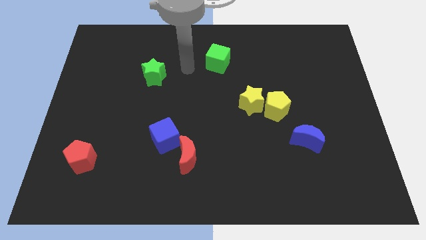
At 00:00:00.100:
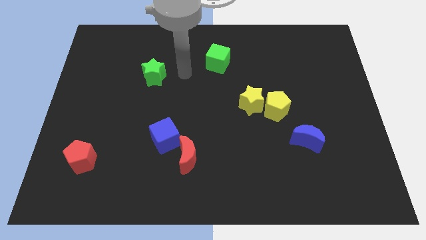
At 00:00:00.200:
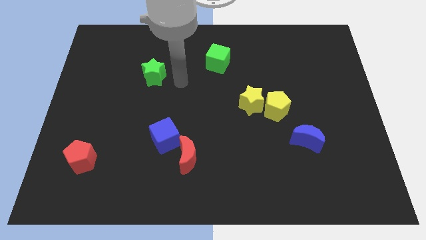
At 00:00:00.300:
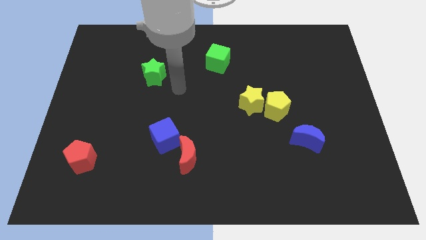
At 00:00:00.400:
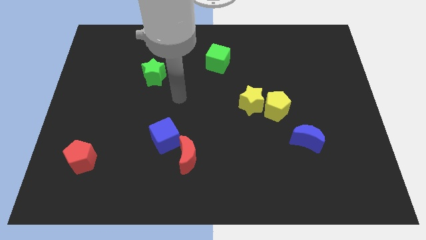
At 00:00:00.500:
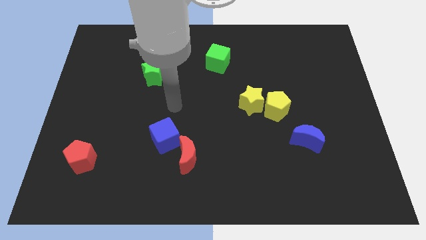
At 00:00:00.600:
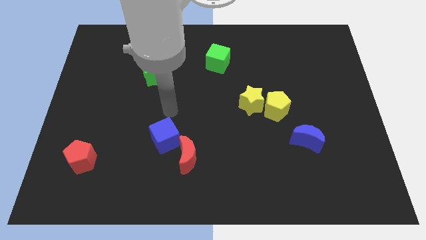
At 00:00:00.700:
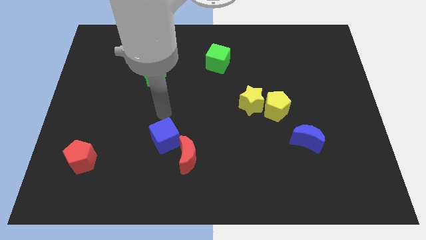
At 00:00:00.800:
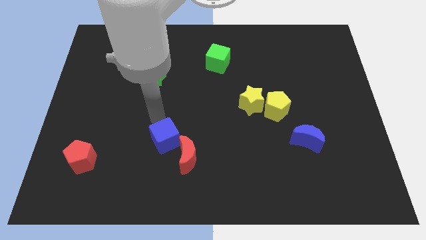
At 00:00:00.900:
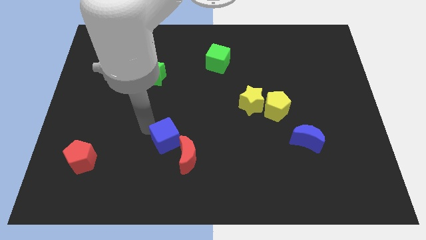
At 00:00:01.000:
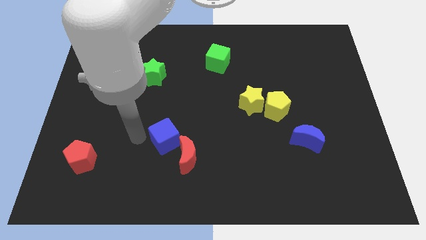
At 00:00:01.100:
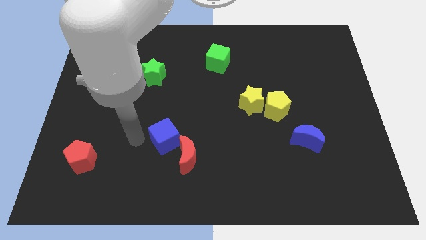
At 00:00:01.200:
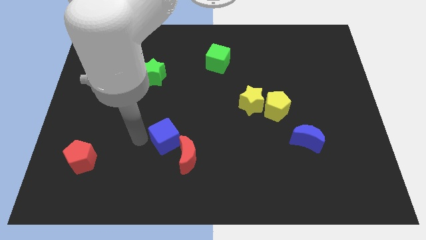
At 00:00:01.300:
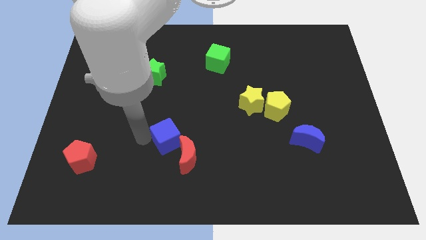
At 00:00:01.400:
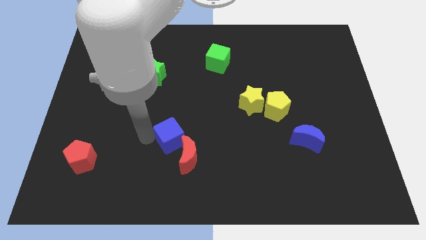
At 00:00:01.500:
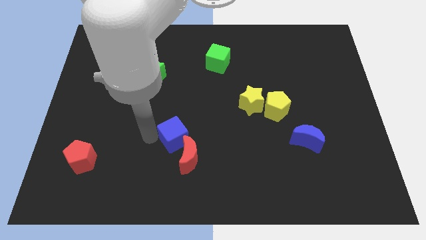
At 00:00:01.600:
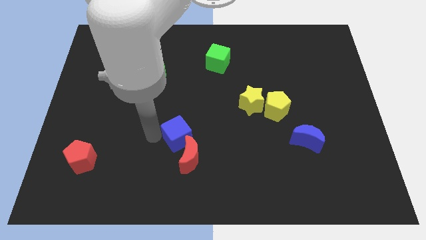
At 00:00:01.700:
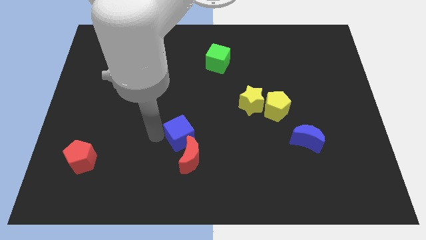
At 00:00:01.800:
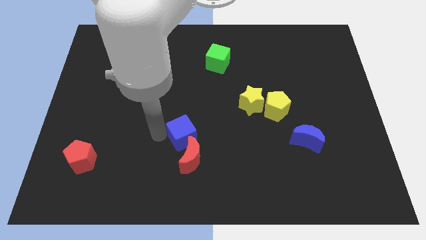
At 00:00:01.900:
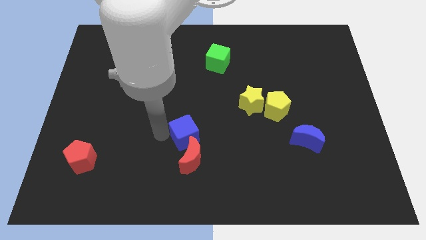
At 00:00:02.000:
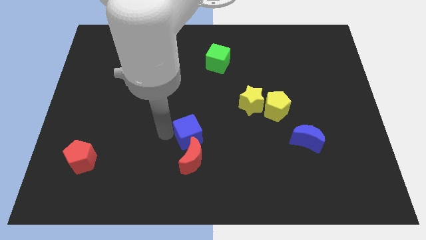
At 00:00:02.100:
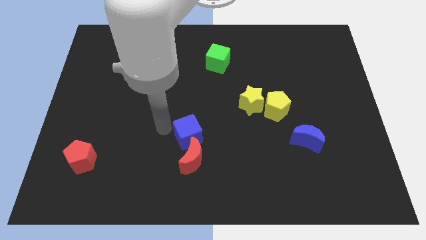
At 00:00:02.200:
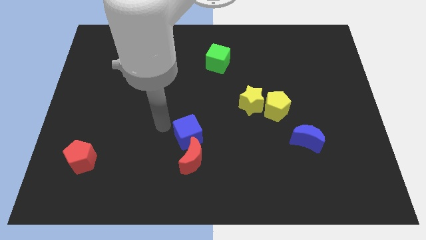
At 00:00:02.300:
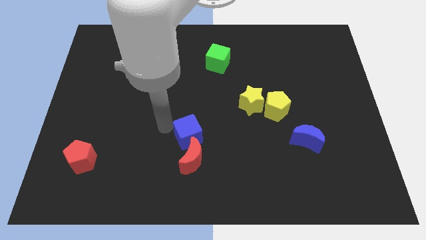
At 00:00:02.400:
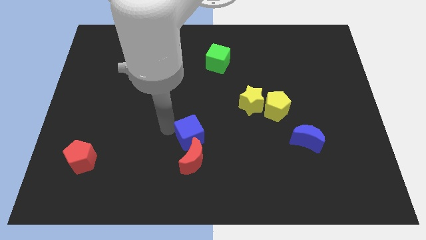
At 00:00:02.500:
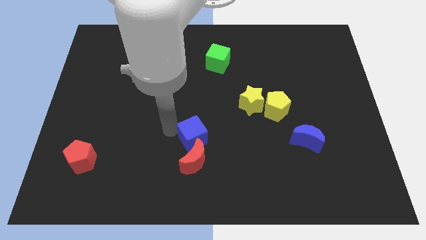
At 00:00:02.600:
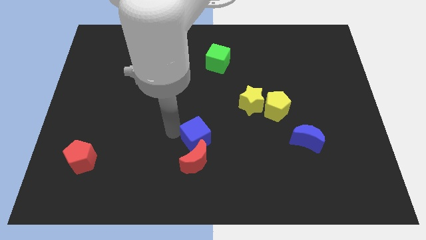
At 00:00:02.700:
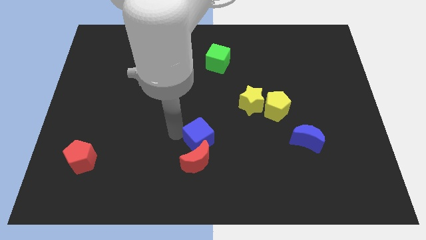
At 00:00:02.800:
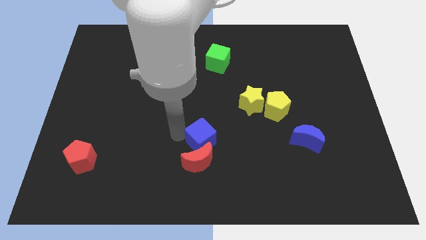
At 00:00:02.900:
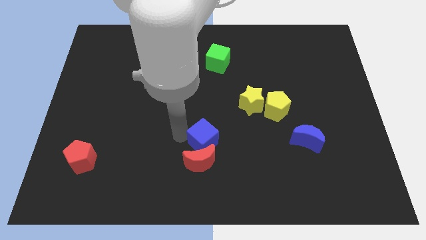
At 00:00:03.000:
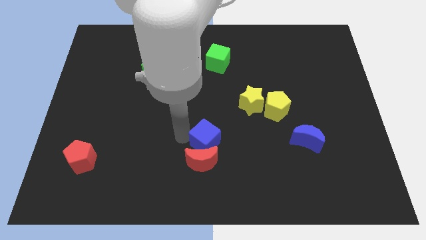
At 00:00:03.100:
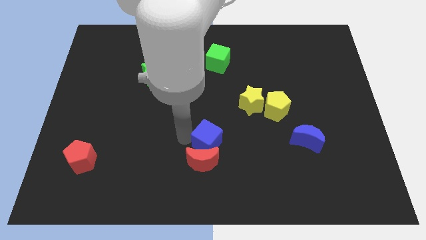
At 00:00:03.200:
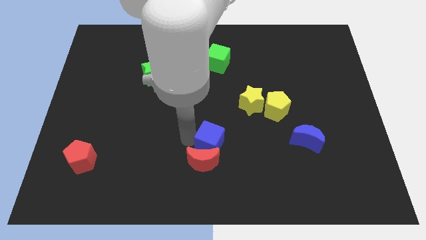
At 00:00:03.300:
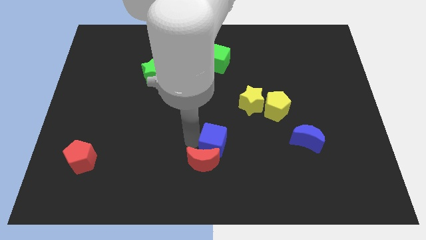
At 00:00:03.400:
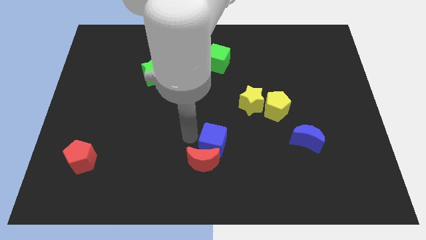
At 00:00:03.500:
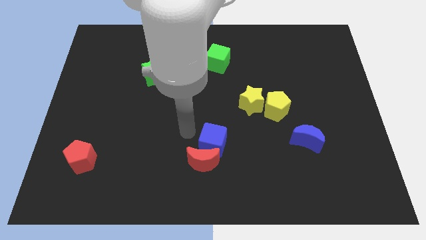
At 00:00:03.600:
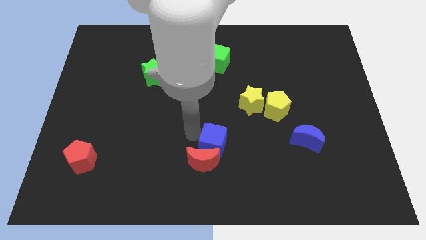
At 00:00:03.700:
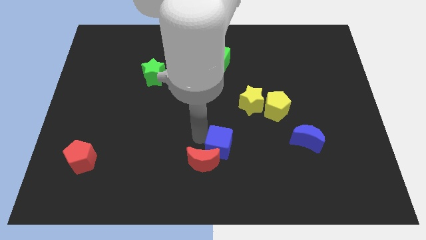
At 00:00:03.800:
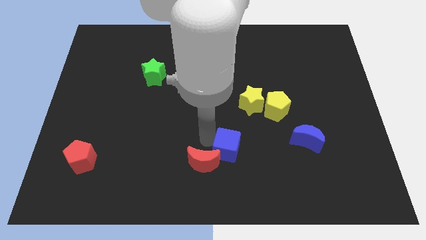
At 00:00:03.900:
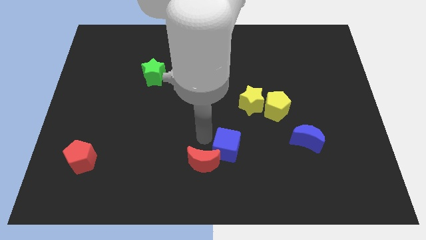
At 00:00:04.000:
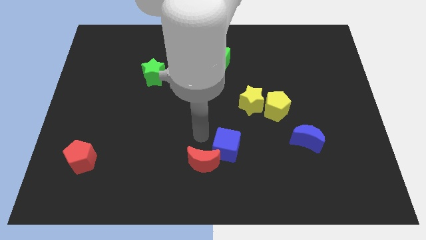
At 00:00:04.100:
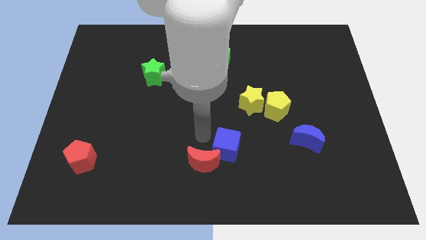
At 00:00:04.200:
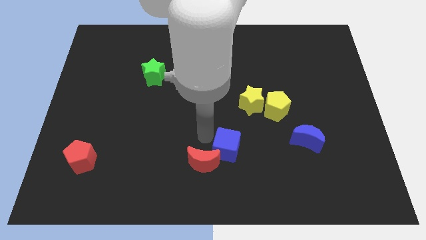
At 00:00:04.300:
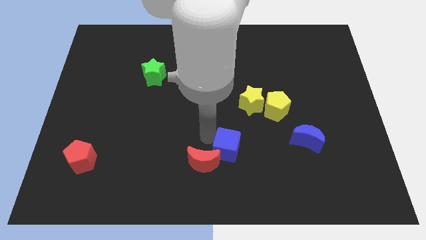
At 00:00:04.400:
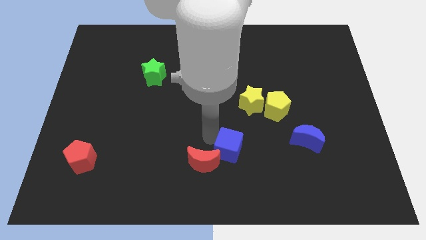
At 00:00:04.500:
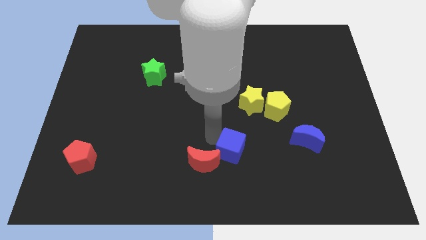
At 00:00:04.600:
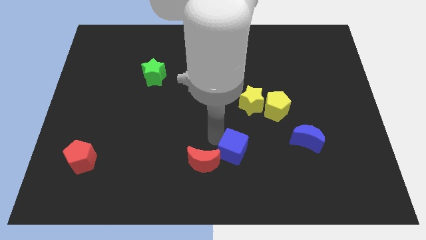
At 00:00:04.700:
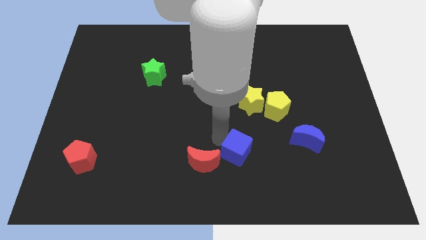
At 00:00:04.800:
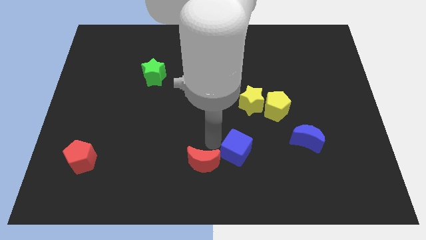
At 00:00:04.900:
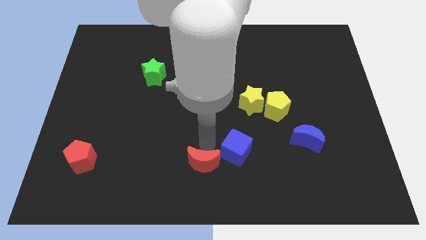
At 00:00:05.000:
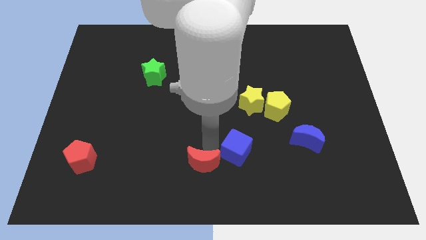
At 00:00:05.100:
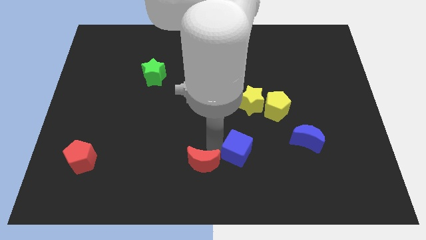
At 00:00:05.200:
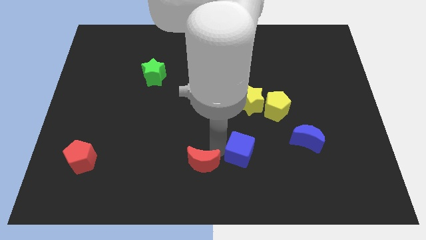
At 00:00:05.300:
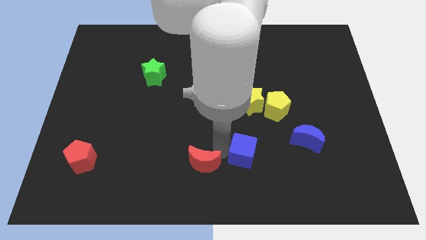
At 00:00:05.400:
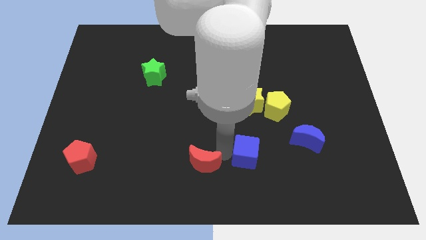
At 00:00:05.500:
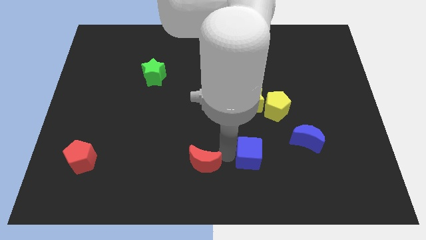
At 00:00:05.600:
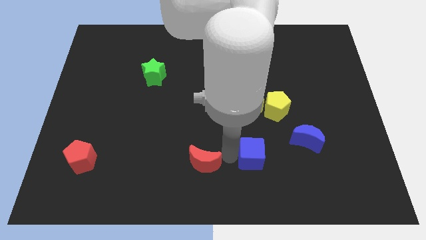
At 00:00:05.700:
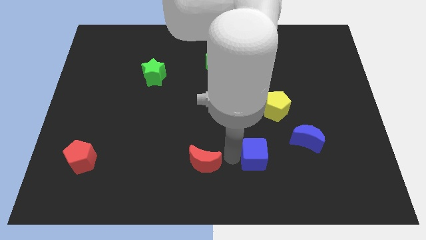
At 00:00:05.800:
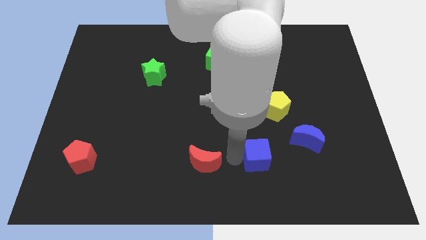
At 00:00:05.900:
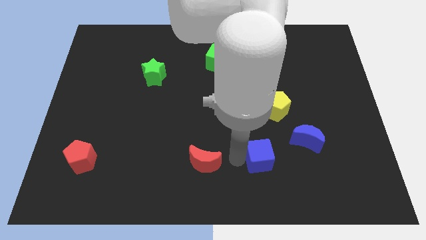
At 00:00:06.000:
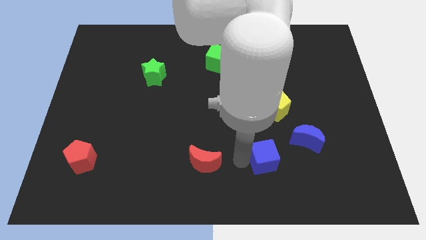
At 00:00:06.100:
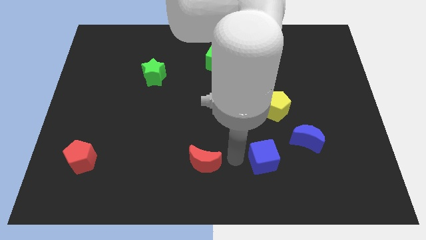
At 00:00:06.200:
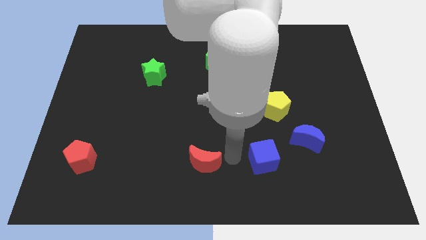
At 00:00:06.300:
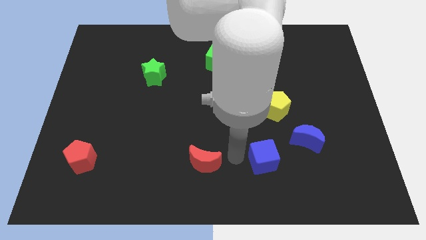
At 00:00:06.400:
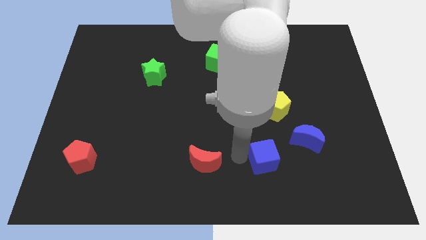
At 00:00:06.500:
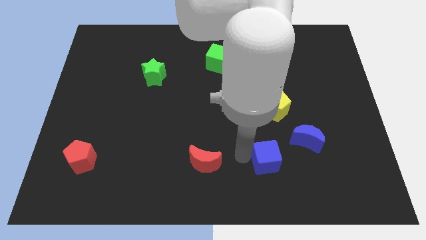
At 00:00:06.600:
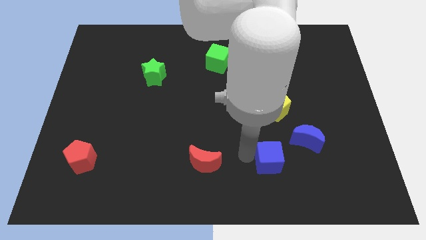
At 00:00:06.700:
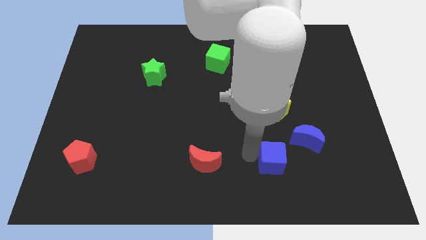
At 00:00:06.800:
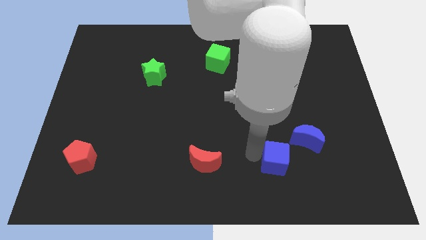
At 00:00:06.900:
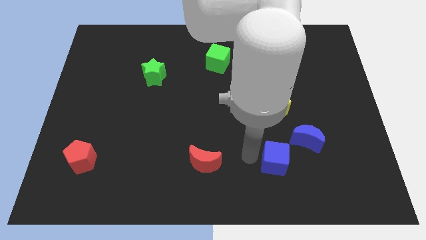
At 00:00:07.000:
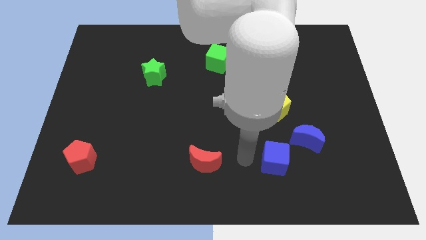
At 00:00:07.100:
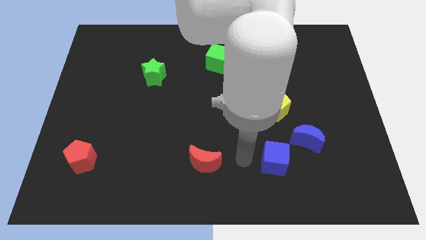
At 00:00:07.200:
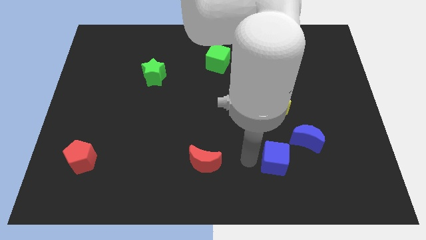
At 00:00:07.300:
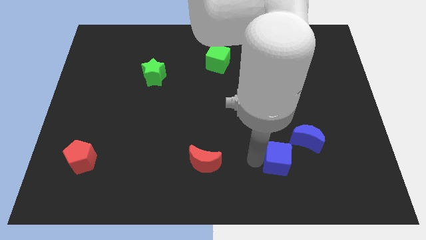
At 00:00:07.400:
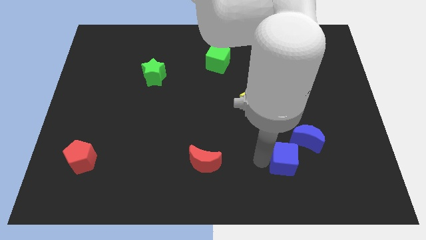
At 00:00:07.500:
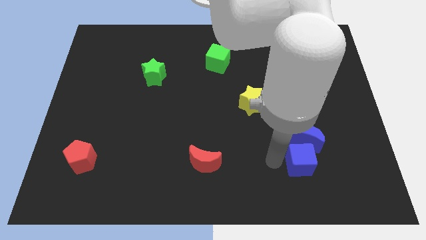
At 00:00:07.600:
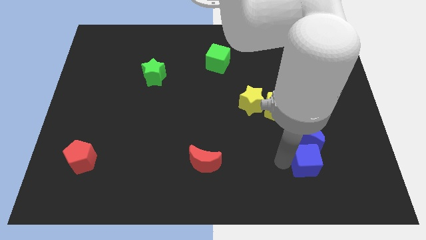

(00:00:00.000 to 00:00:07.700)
push the blue cube to the bottom right side of the blue moon

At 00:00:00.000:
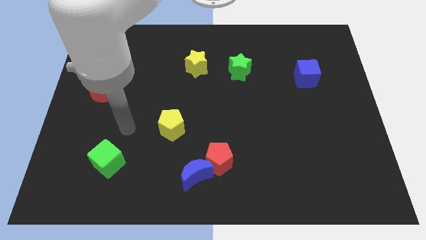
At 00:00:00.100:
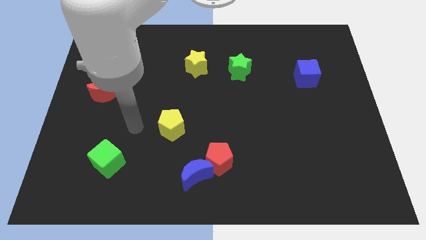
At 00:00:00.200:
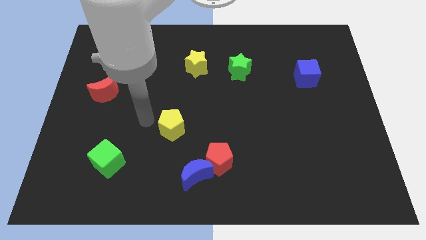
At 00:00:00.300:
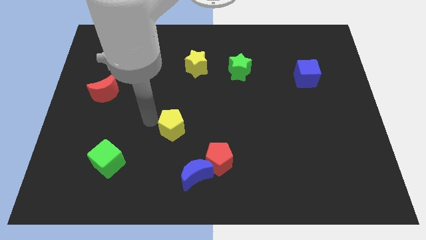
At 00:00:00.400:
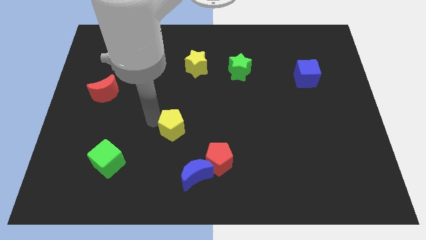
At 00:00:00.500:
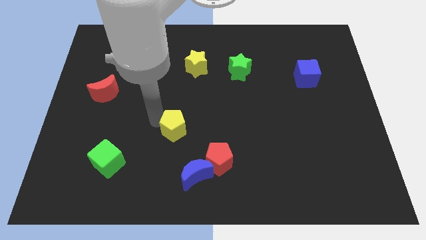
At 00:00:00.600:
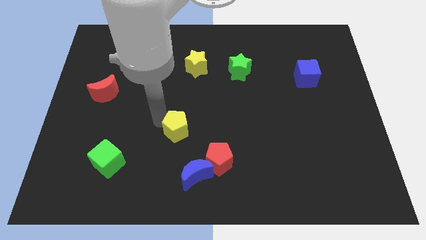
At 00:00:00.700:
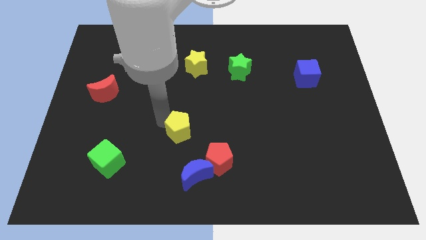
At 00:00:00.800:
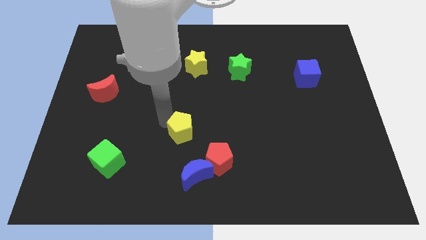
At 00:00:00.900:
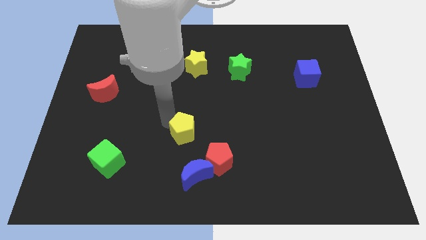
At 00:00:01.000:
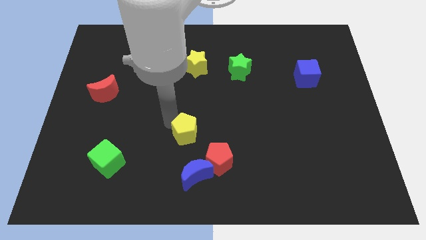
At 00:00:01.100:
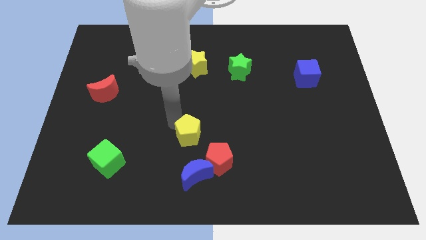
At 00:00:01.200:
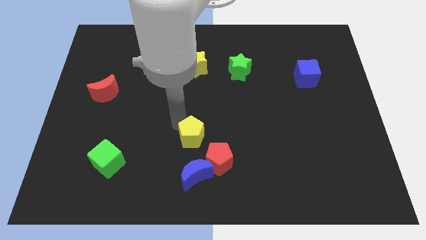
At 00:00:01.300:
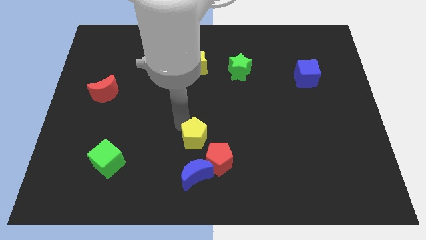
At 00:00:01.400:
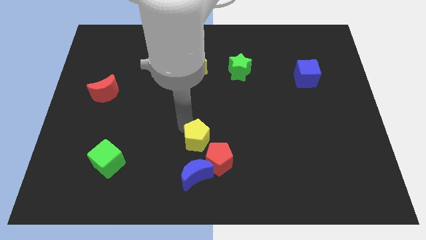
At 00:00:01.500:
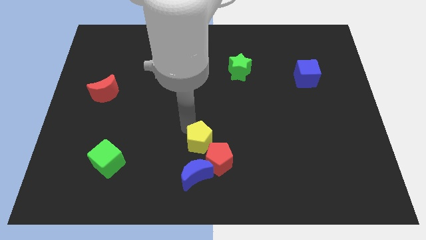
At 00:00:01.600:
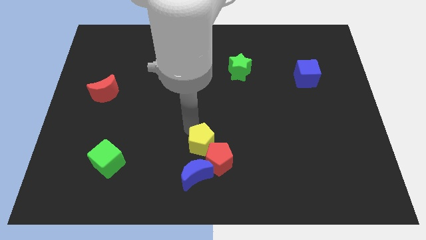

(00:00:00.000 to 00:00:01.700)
slide the yellow pentagon to the top right side of the blue moon
